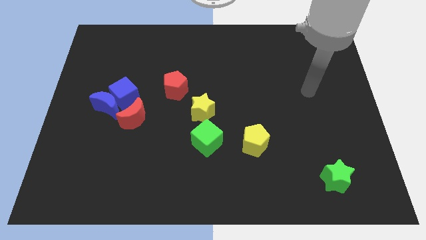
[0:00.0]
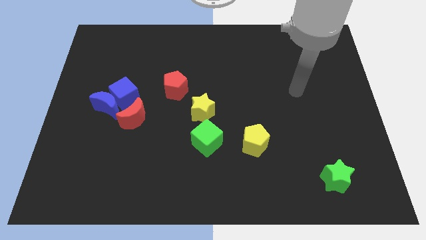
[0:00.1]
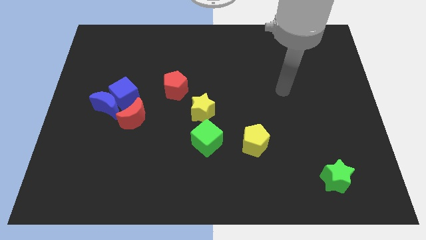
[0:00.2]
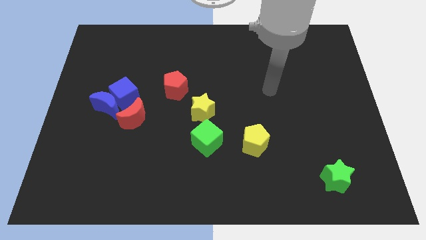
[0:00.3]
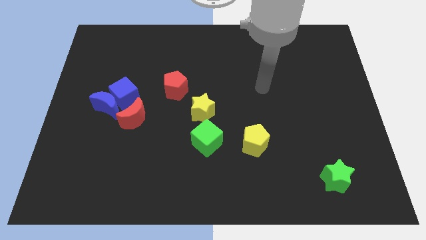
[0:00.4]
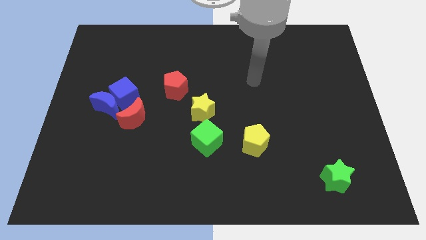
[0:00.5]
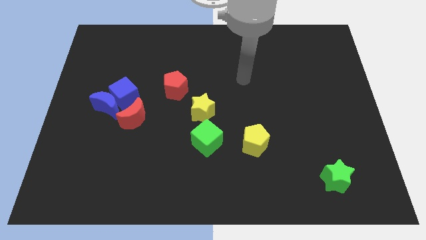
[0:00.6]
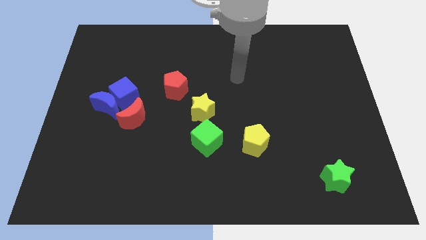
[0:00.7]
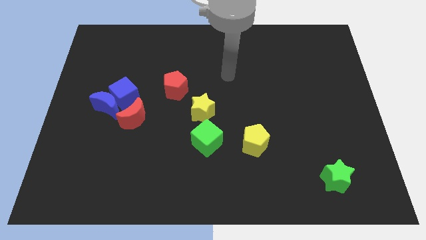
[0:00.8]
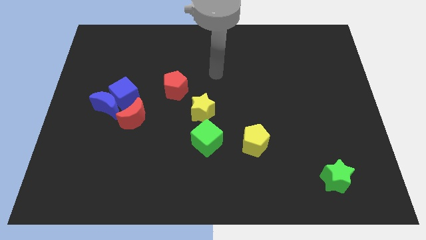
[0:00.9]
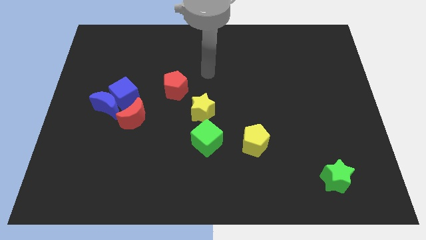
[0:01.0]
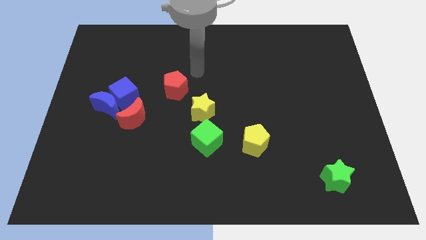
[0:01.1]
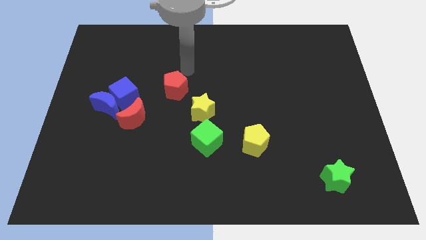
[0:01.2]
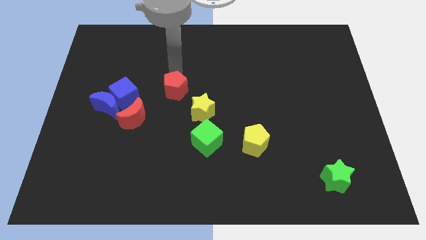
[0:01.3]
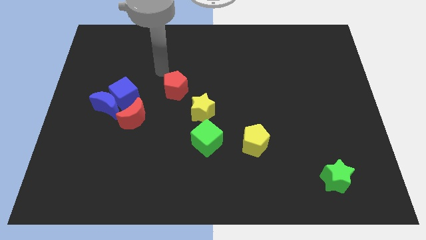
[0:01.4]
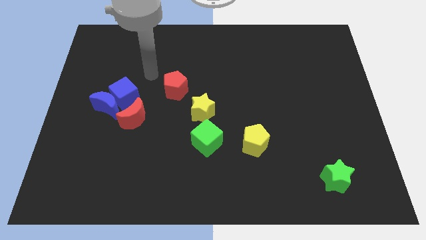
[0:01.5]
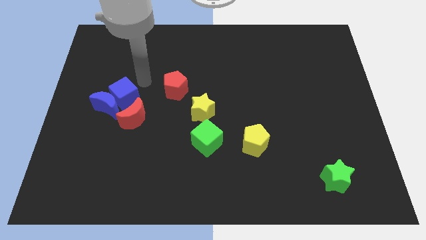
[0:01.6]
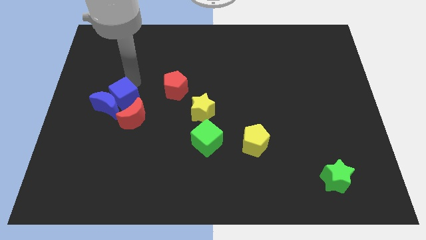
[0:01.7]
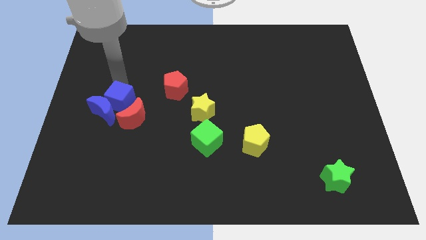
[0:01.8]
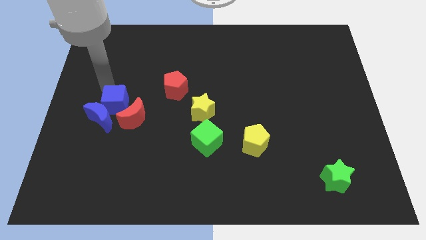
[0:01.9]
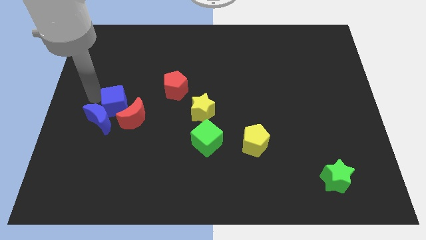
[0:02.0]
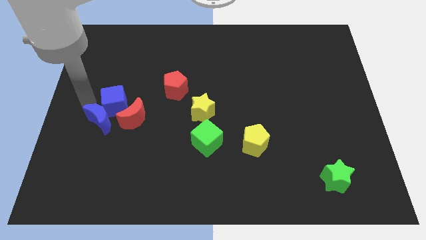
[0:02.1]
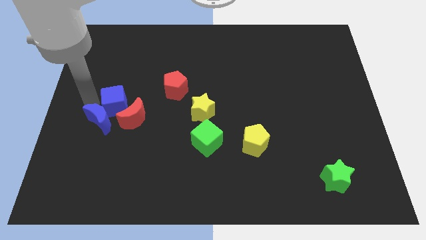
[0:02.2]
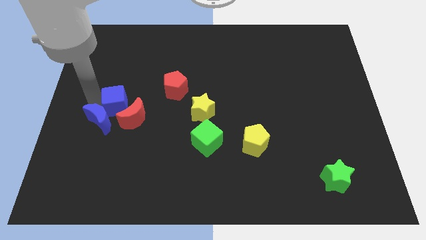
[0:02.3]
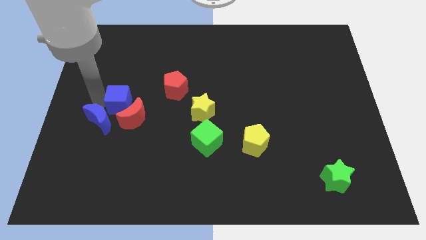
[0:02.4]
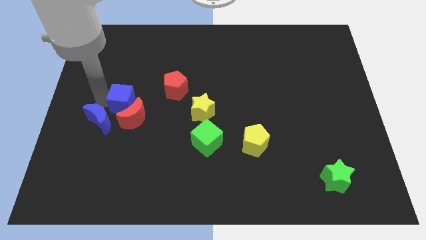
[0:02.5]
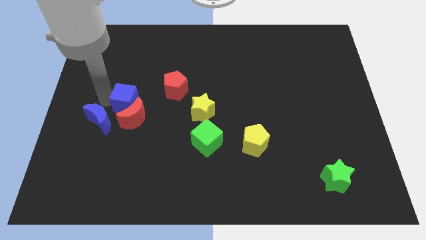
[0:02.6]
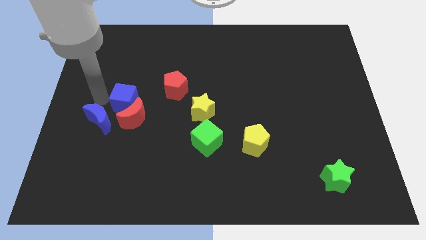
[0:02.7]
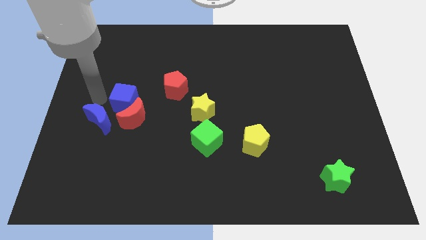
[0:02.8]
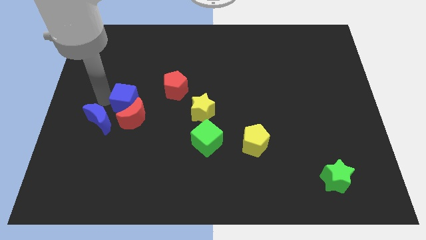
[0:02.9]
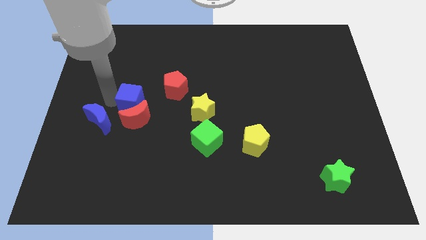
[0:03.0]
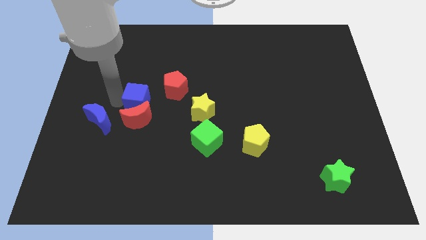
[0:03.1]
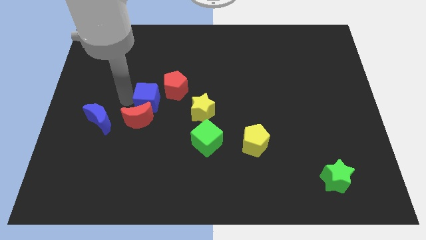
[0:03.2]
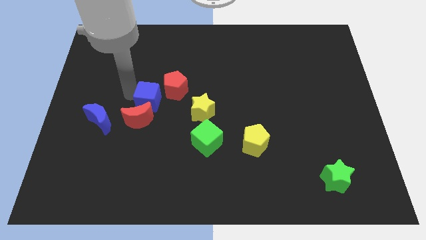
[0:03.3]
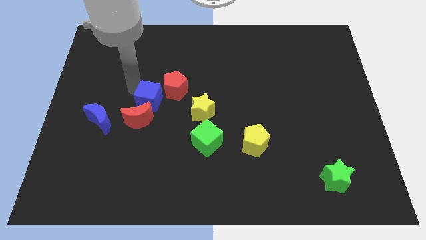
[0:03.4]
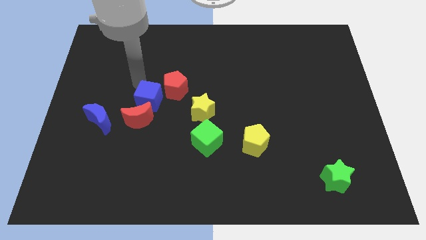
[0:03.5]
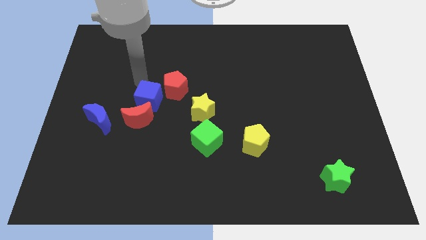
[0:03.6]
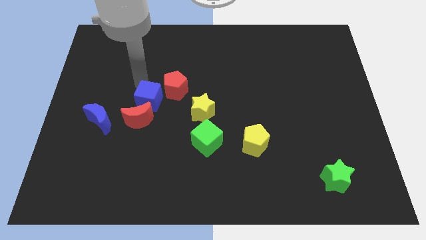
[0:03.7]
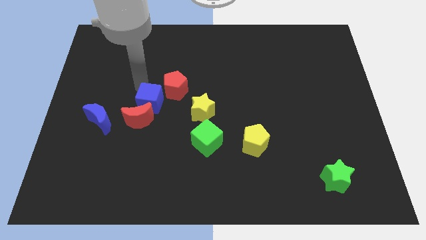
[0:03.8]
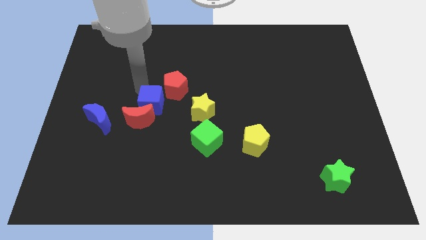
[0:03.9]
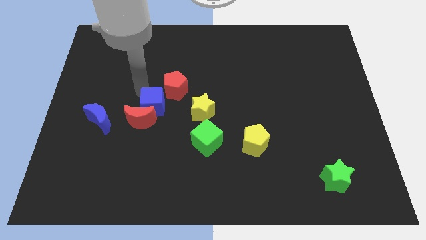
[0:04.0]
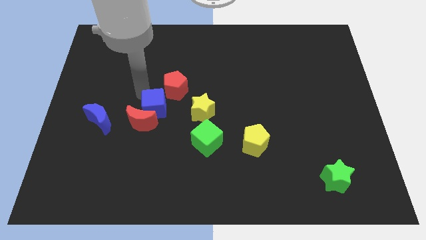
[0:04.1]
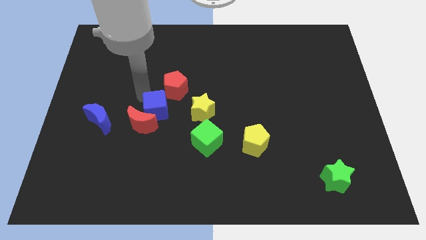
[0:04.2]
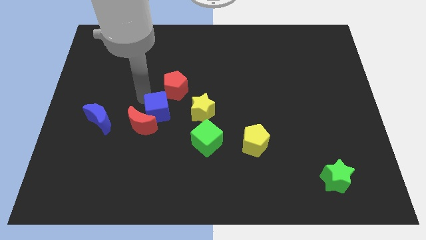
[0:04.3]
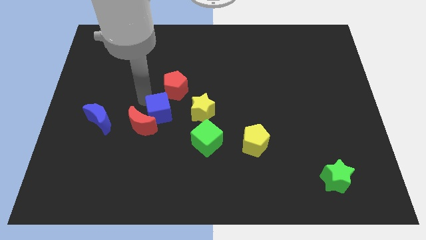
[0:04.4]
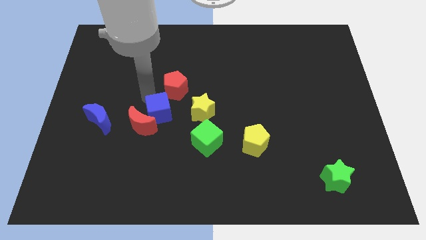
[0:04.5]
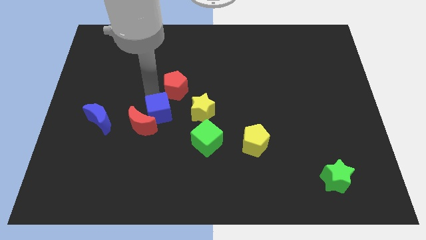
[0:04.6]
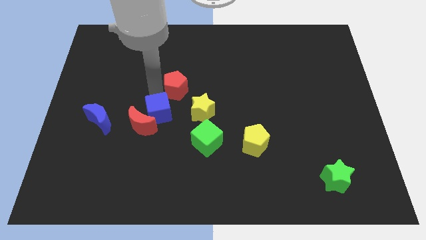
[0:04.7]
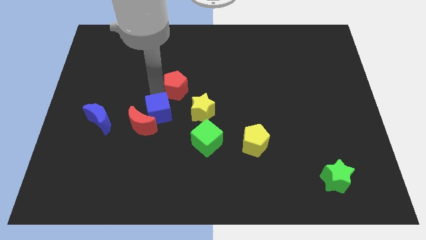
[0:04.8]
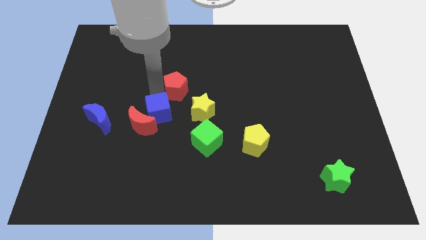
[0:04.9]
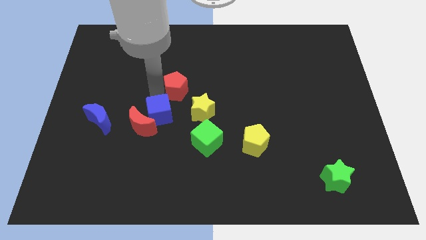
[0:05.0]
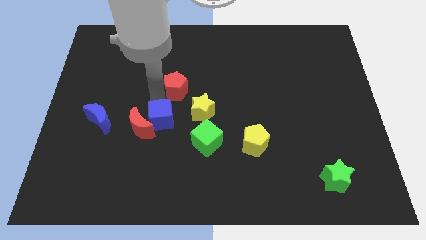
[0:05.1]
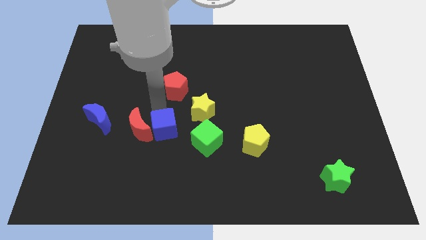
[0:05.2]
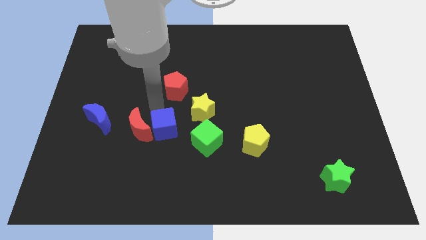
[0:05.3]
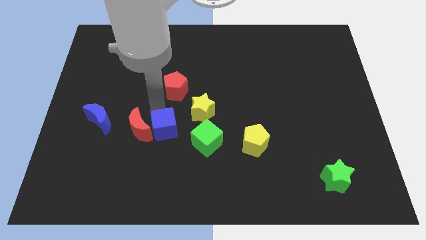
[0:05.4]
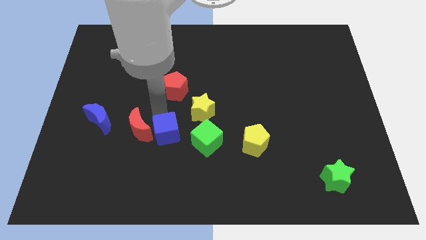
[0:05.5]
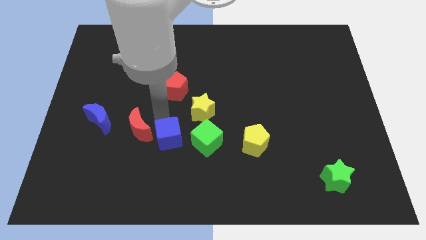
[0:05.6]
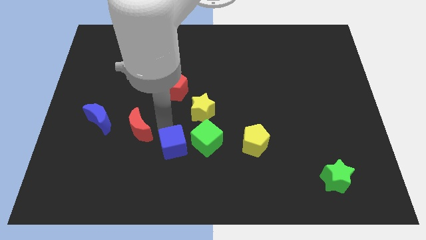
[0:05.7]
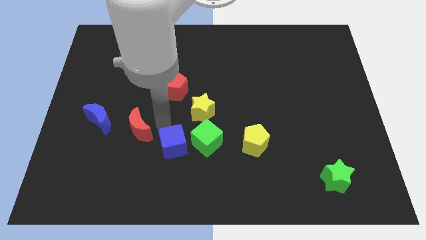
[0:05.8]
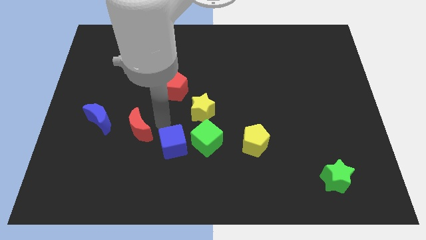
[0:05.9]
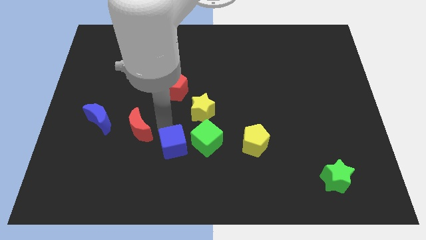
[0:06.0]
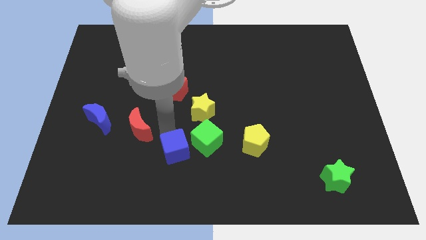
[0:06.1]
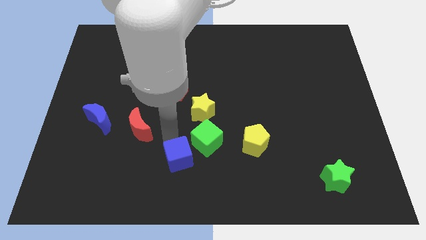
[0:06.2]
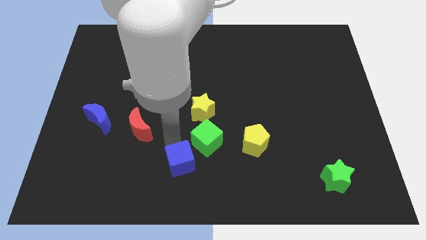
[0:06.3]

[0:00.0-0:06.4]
move the blue cube to the bottom side

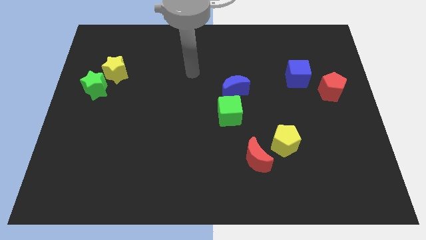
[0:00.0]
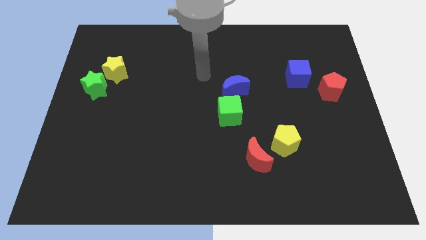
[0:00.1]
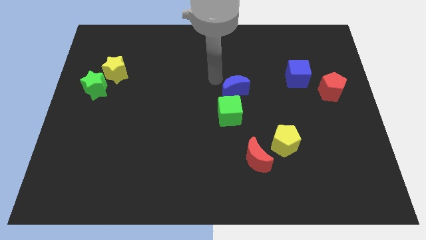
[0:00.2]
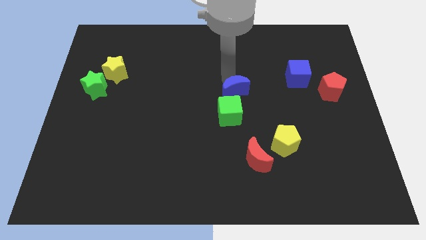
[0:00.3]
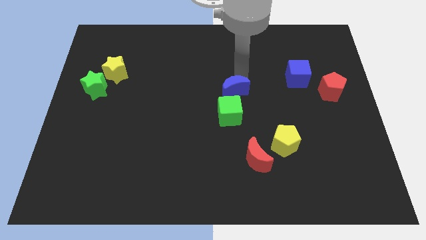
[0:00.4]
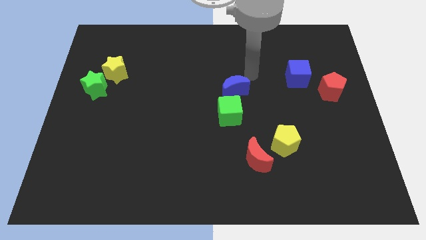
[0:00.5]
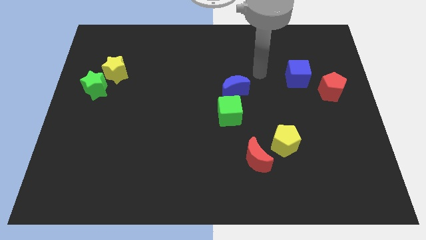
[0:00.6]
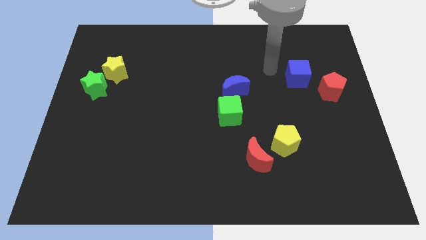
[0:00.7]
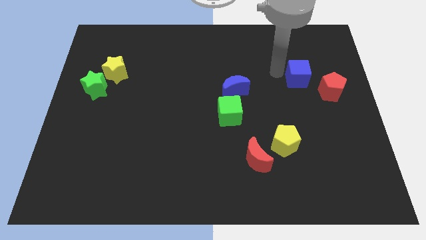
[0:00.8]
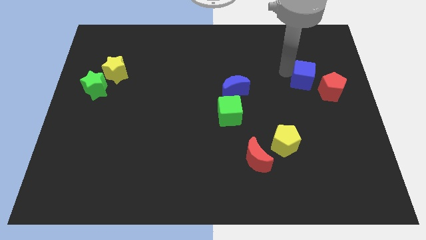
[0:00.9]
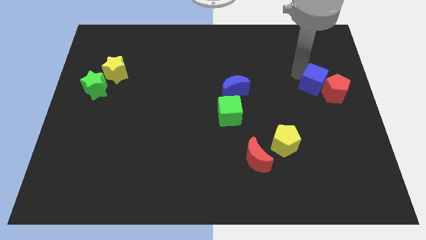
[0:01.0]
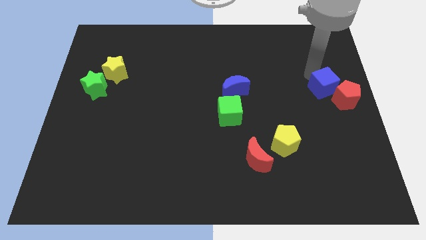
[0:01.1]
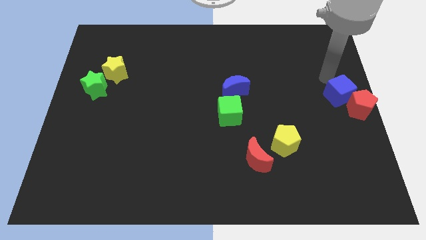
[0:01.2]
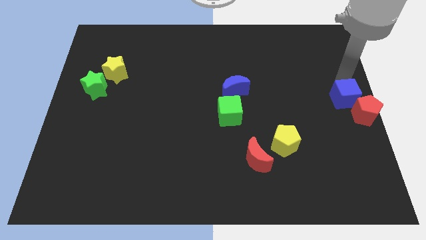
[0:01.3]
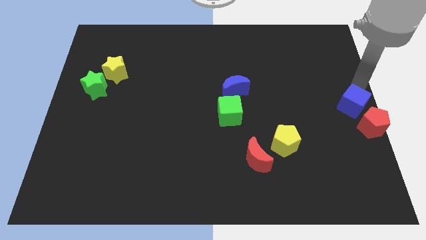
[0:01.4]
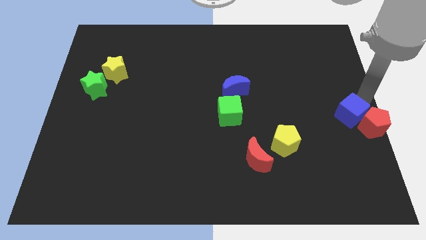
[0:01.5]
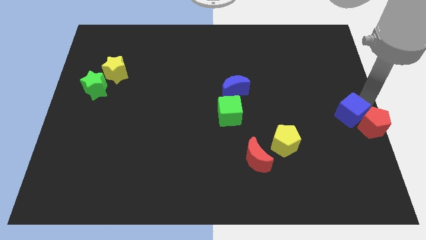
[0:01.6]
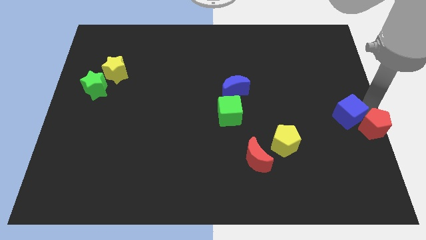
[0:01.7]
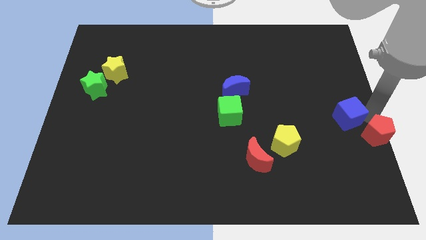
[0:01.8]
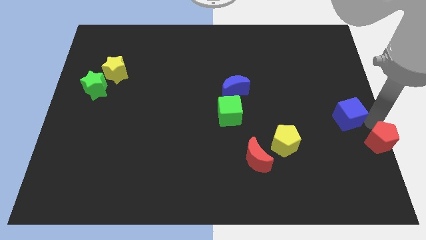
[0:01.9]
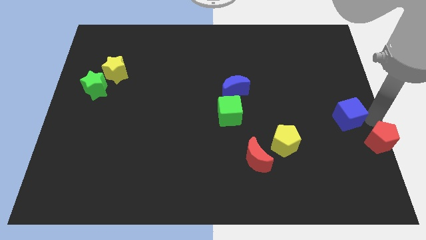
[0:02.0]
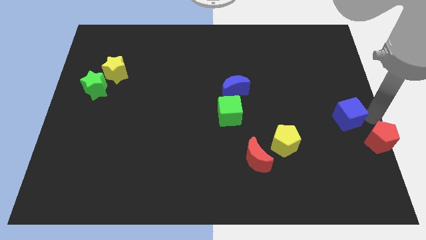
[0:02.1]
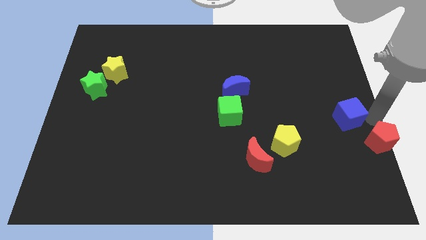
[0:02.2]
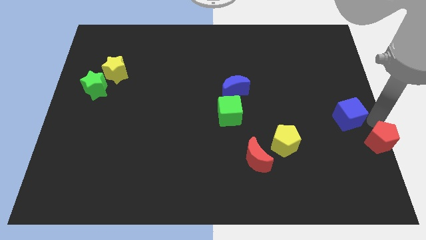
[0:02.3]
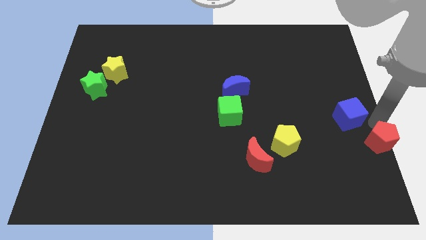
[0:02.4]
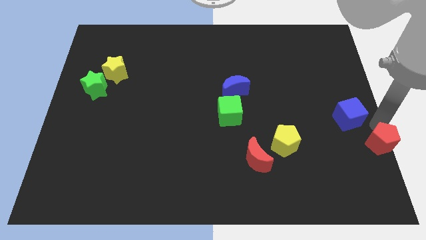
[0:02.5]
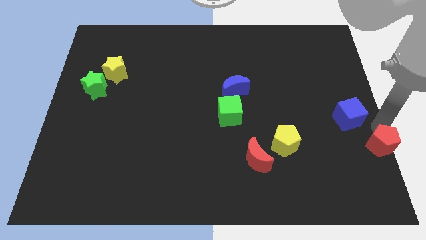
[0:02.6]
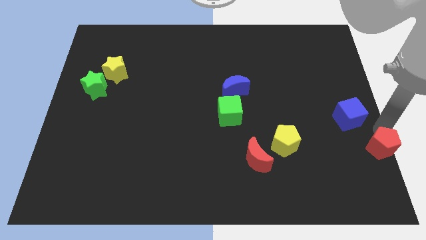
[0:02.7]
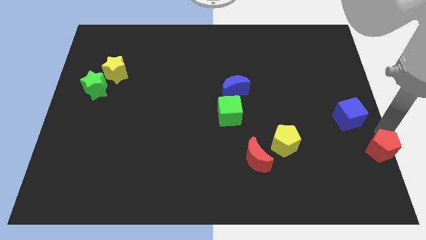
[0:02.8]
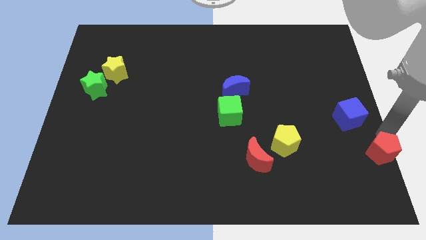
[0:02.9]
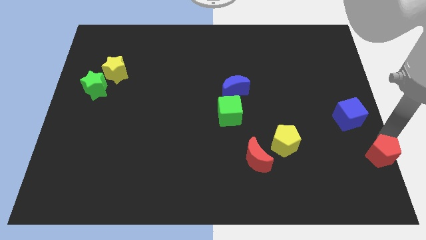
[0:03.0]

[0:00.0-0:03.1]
push the red pentagon to the bottom right corner
